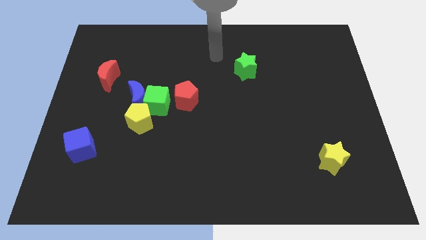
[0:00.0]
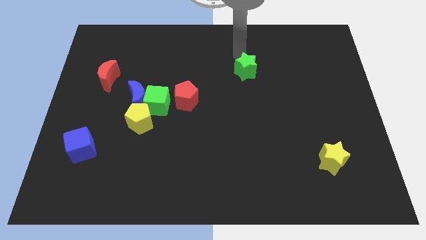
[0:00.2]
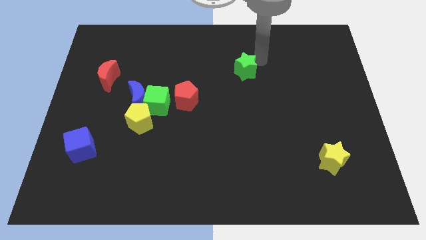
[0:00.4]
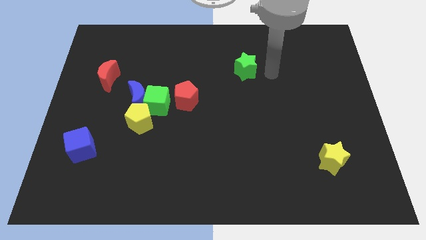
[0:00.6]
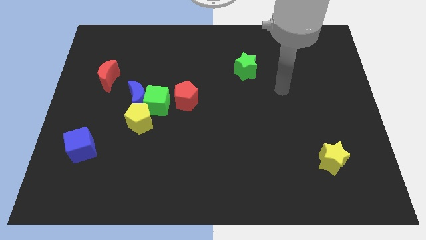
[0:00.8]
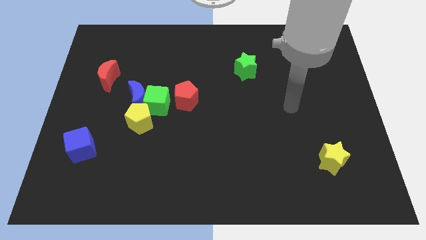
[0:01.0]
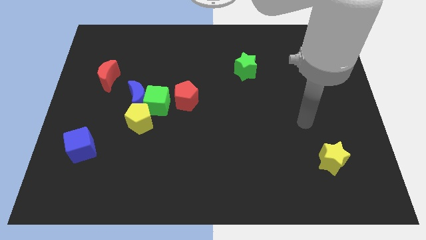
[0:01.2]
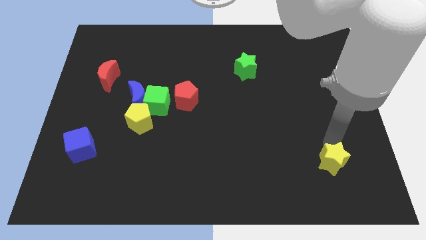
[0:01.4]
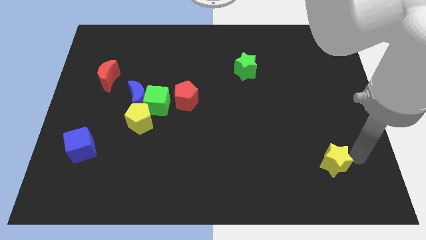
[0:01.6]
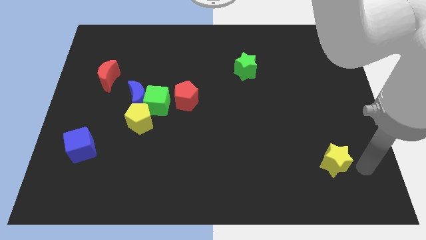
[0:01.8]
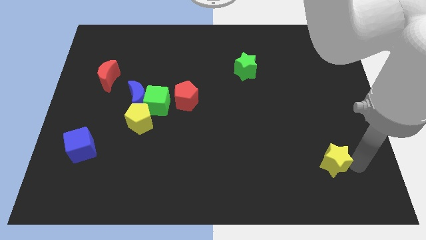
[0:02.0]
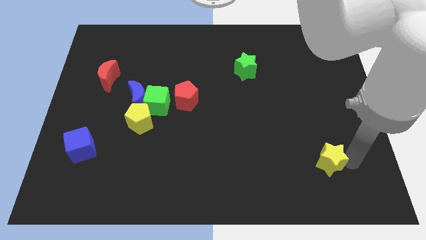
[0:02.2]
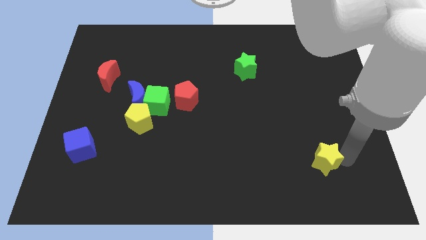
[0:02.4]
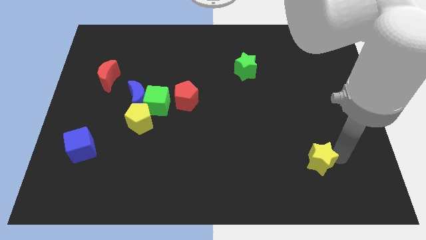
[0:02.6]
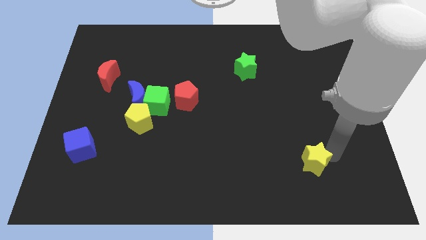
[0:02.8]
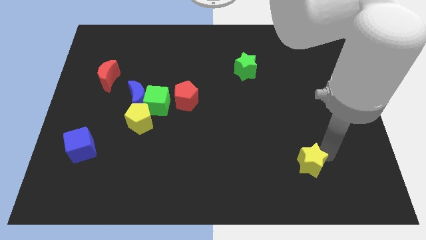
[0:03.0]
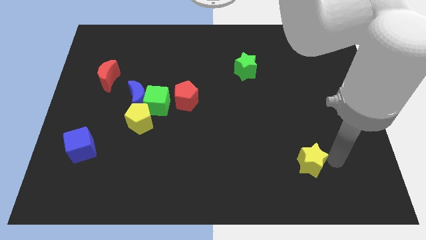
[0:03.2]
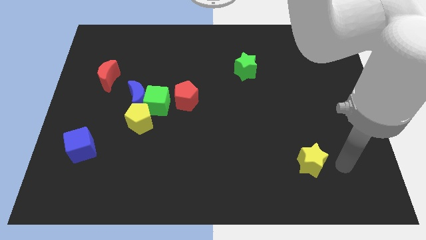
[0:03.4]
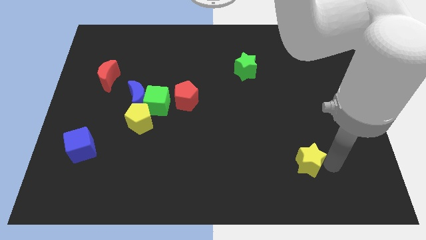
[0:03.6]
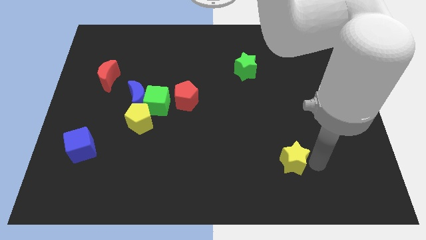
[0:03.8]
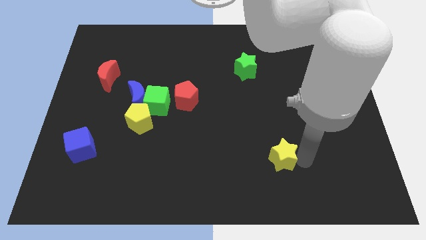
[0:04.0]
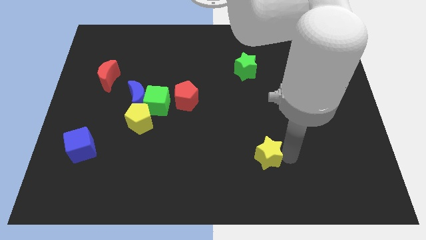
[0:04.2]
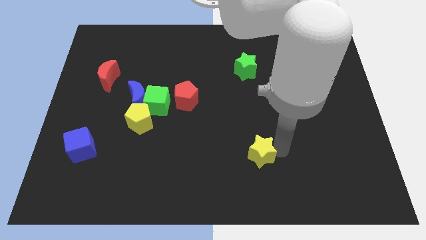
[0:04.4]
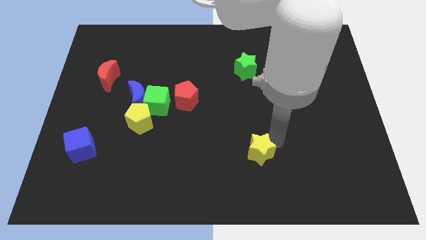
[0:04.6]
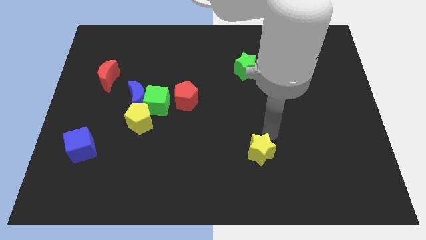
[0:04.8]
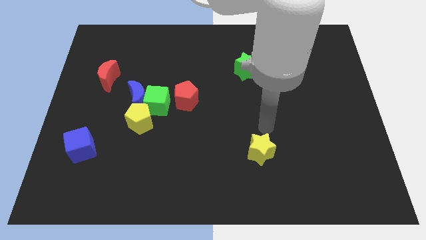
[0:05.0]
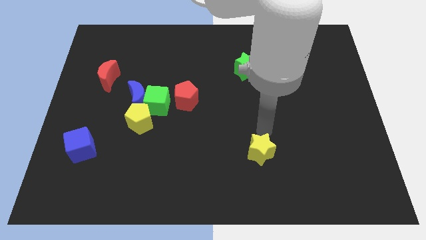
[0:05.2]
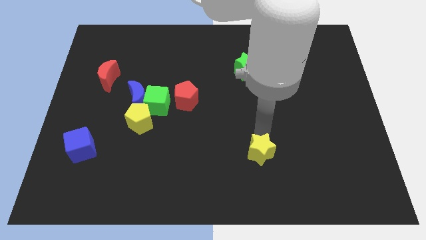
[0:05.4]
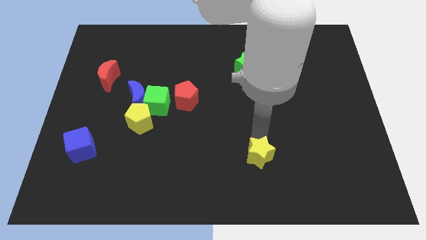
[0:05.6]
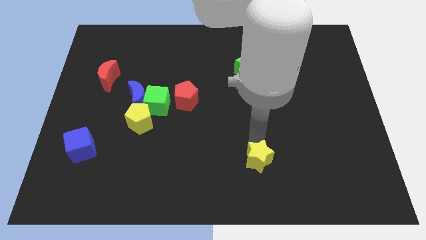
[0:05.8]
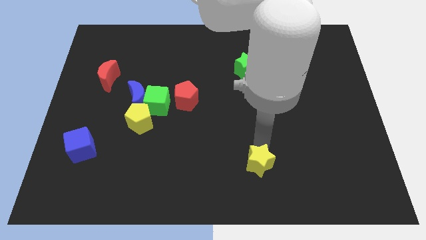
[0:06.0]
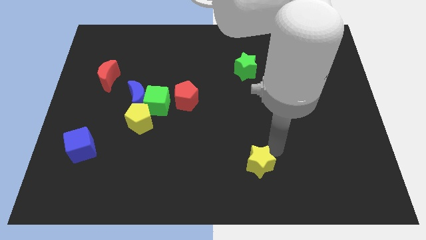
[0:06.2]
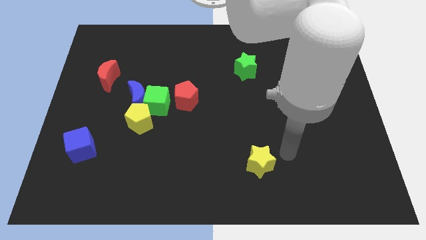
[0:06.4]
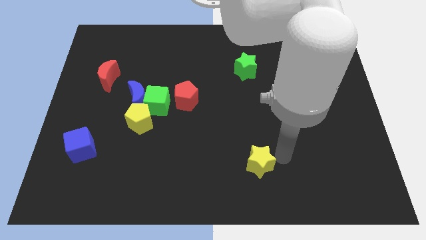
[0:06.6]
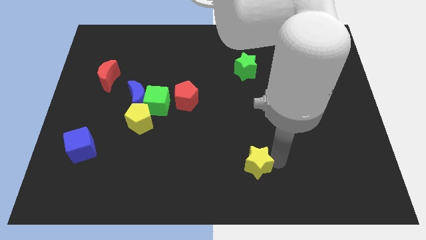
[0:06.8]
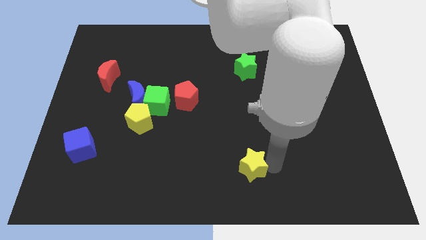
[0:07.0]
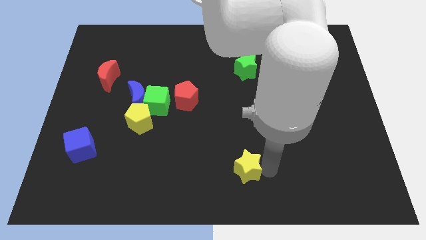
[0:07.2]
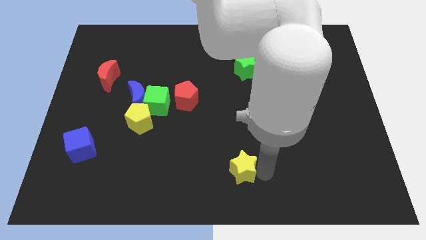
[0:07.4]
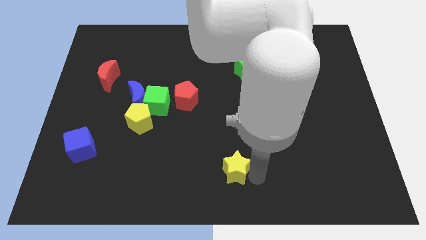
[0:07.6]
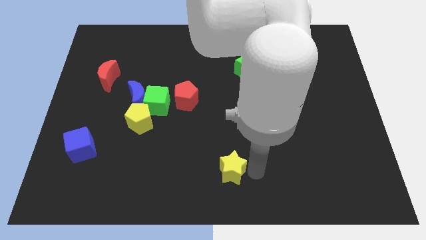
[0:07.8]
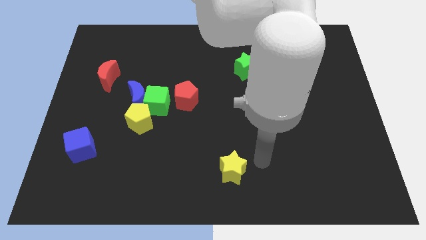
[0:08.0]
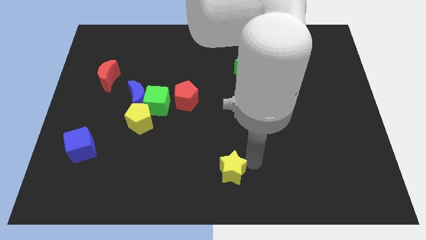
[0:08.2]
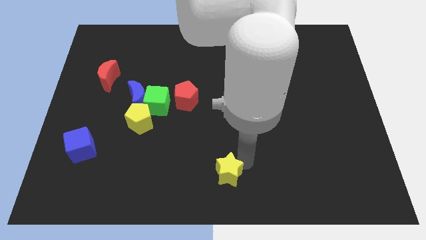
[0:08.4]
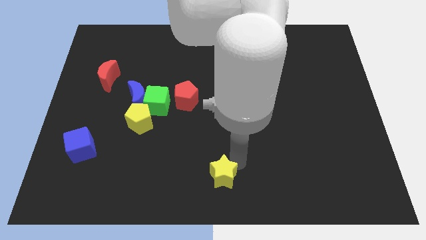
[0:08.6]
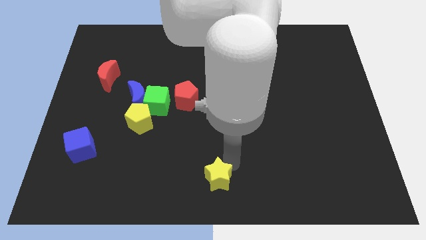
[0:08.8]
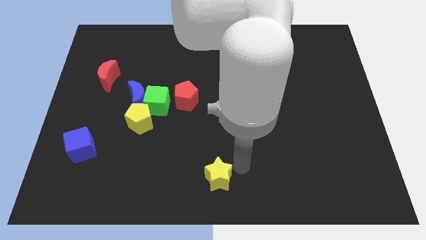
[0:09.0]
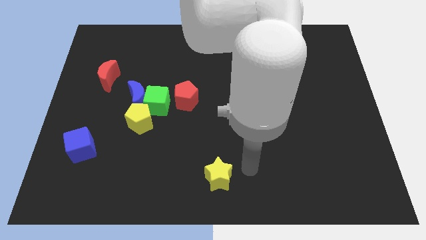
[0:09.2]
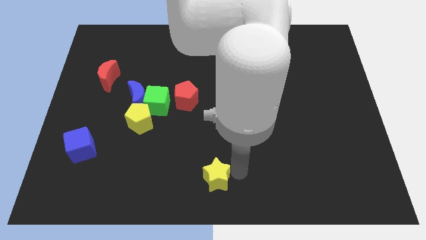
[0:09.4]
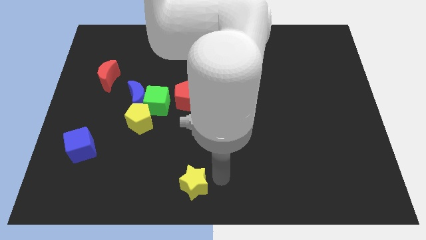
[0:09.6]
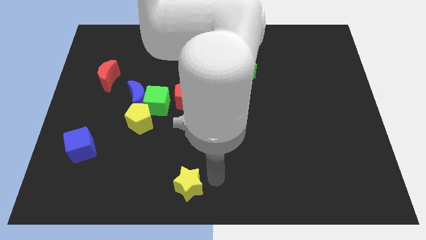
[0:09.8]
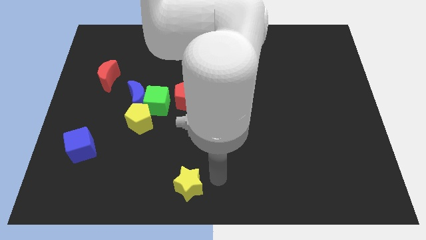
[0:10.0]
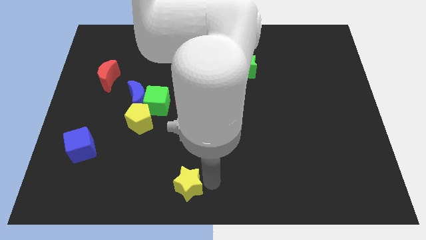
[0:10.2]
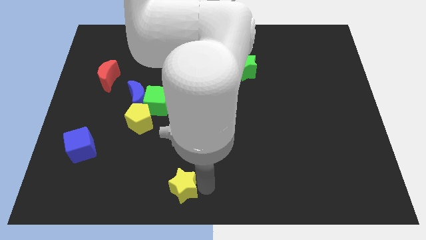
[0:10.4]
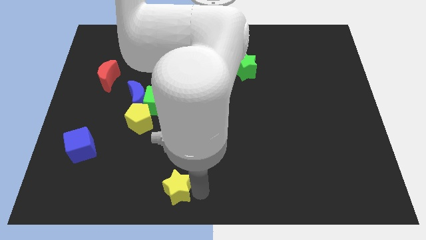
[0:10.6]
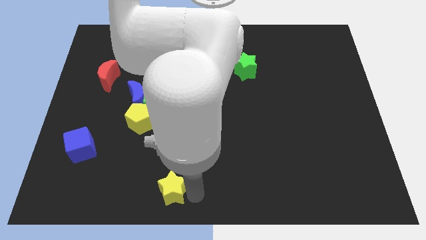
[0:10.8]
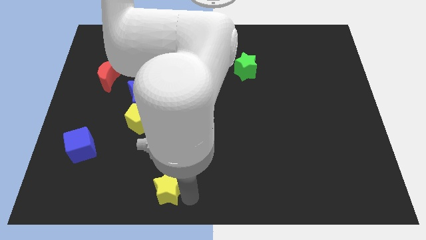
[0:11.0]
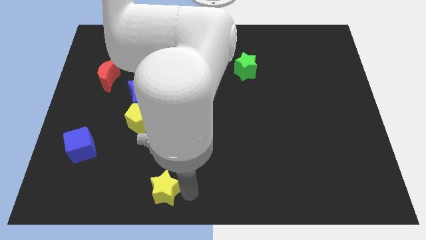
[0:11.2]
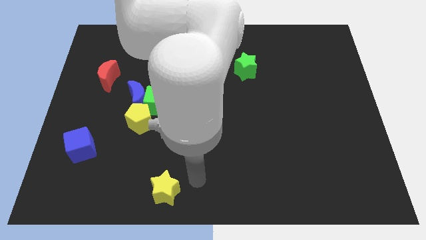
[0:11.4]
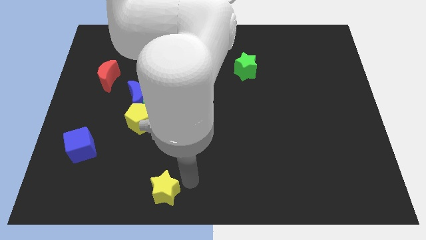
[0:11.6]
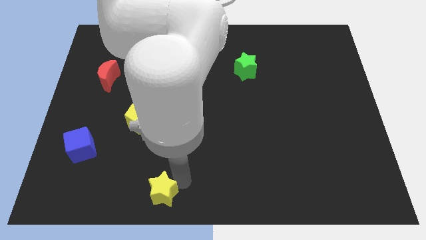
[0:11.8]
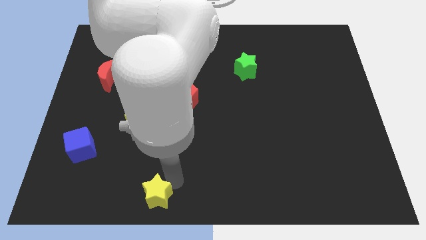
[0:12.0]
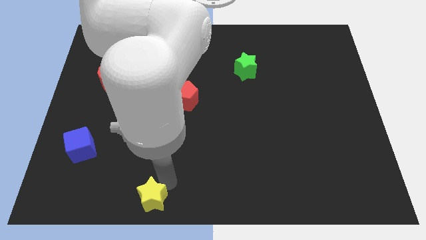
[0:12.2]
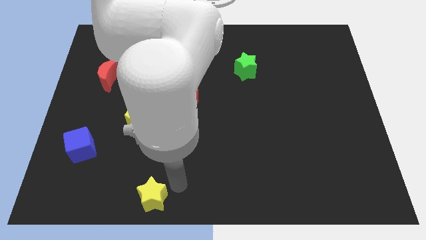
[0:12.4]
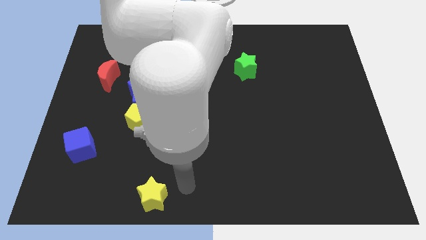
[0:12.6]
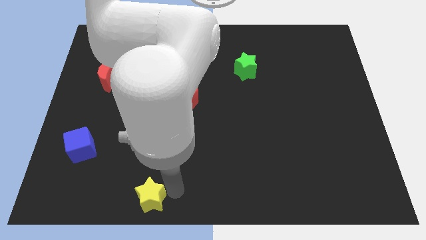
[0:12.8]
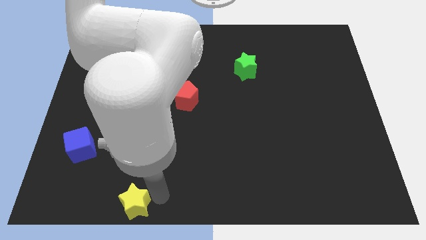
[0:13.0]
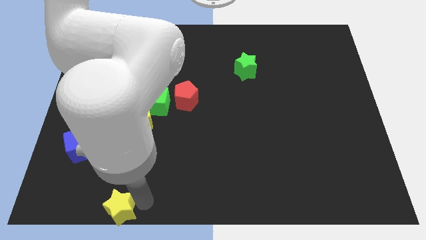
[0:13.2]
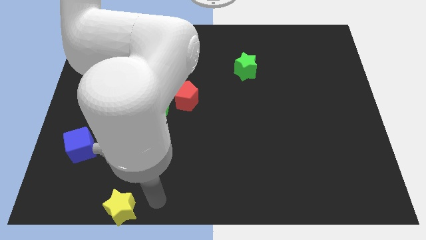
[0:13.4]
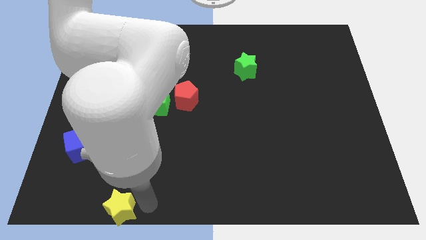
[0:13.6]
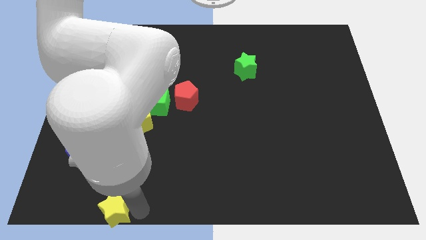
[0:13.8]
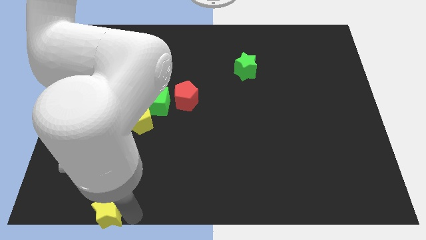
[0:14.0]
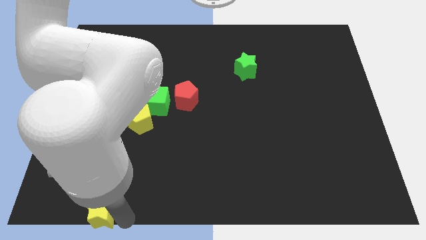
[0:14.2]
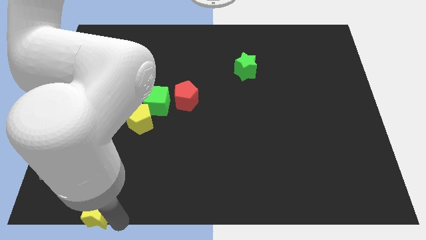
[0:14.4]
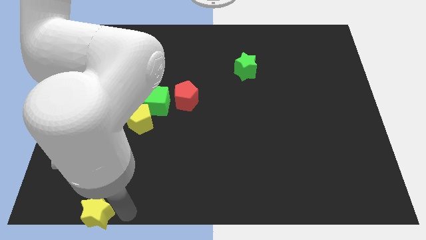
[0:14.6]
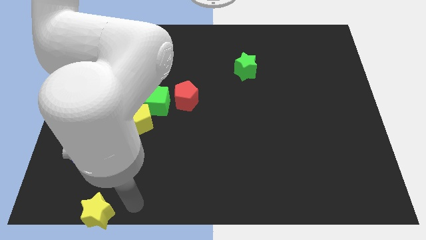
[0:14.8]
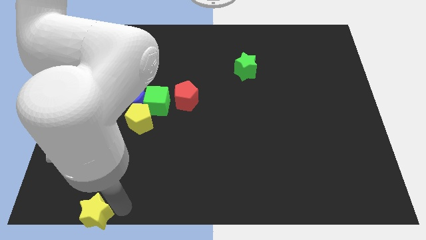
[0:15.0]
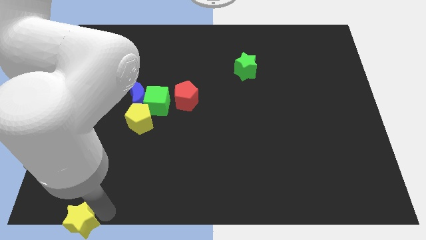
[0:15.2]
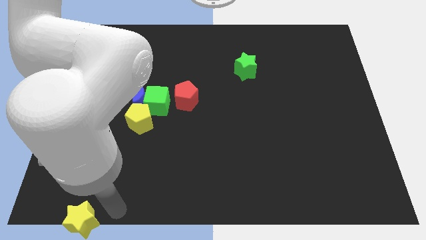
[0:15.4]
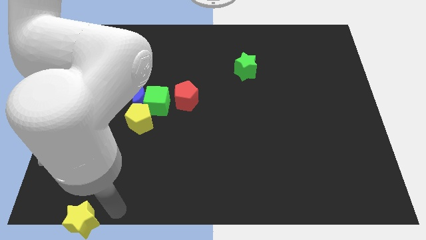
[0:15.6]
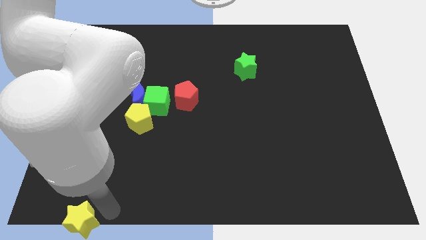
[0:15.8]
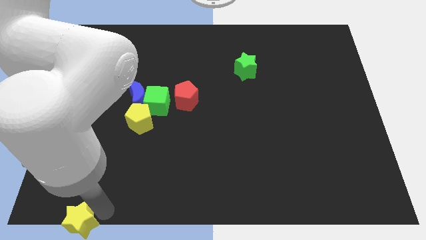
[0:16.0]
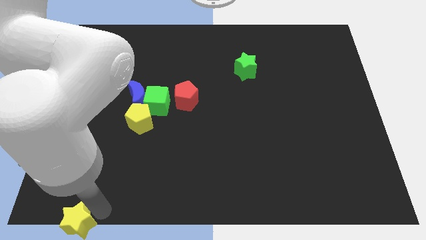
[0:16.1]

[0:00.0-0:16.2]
move the yellow star to the bottom left corner
